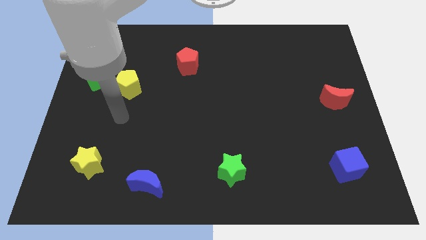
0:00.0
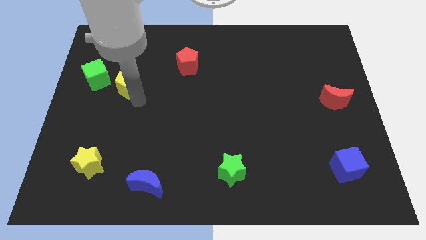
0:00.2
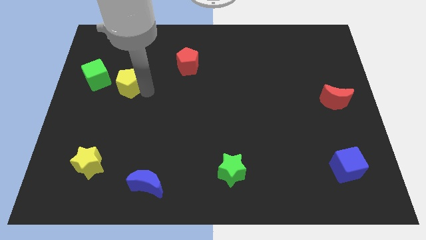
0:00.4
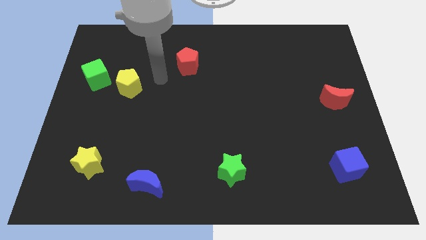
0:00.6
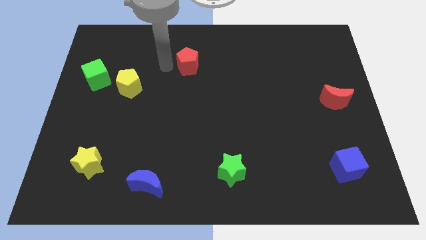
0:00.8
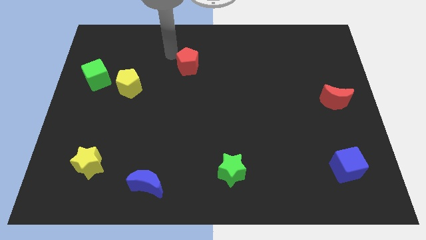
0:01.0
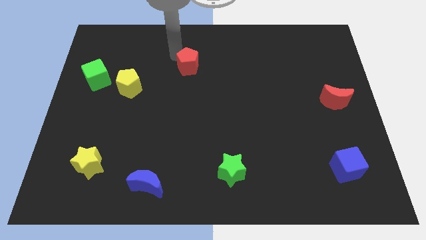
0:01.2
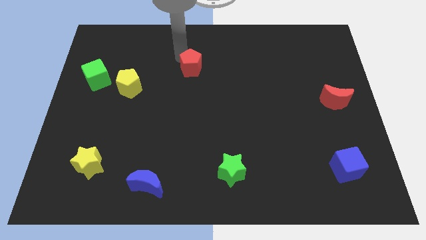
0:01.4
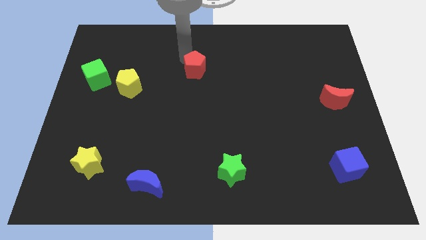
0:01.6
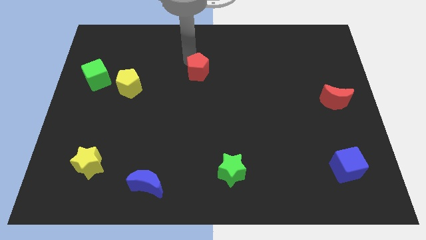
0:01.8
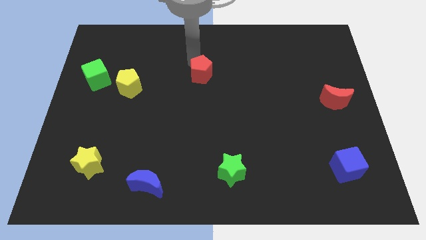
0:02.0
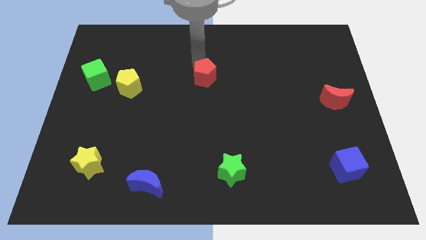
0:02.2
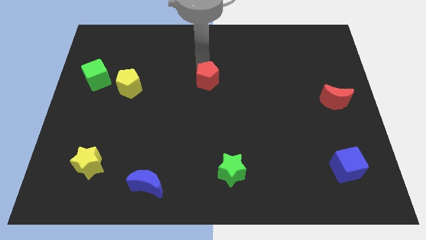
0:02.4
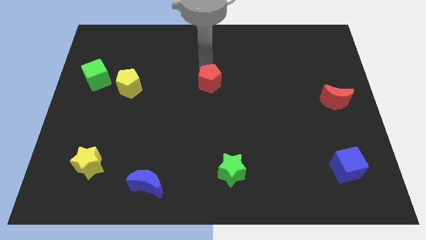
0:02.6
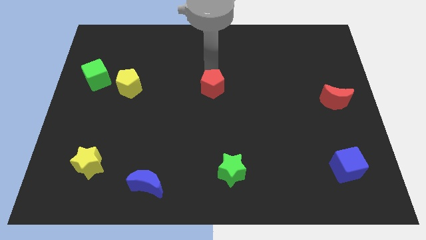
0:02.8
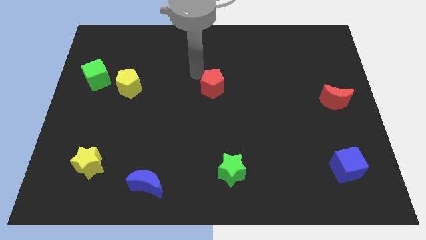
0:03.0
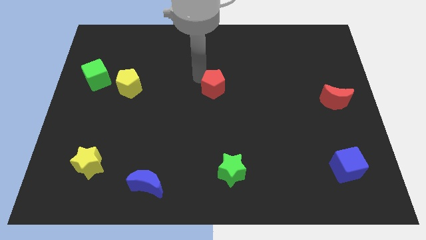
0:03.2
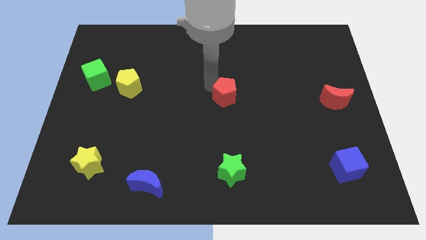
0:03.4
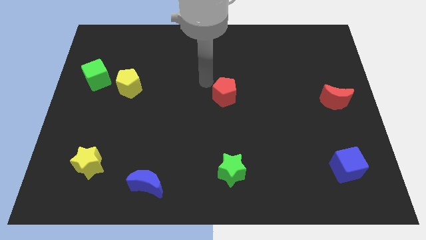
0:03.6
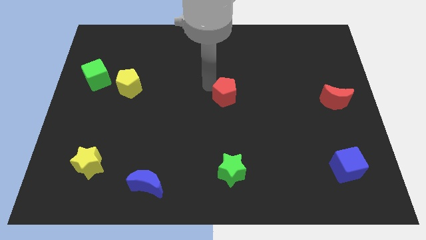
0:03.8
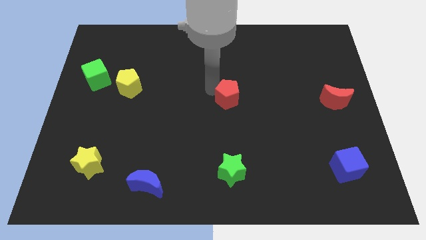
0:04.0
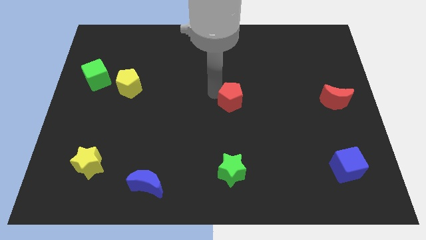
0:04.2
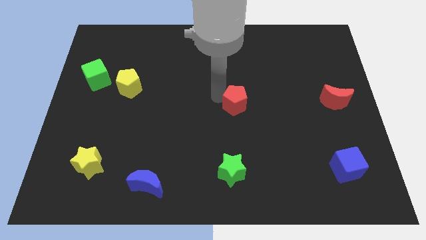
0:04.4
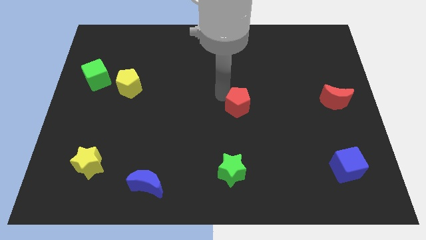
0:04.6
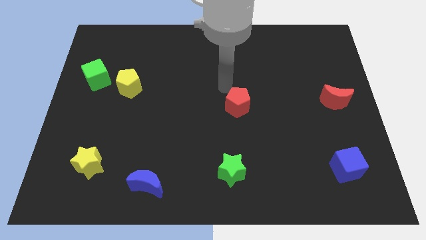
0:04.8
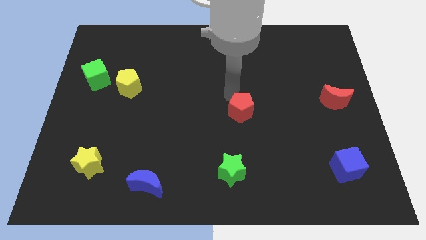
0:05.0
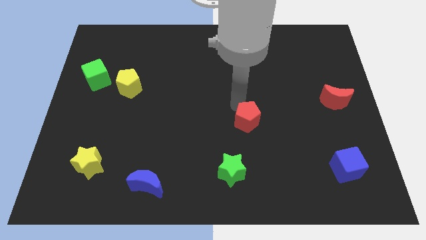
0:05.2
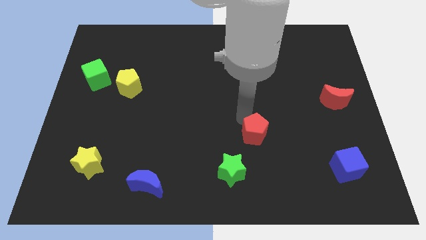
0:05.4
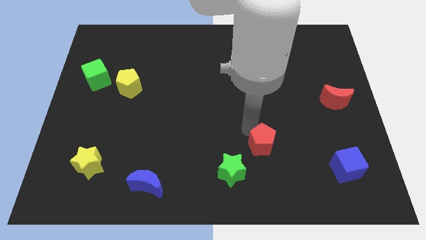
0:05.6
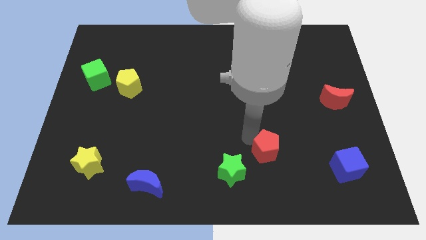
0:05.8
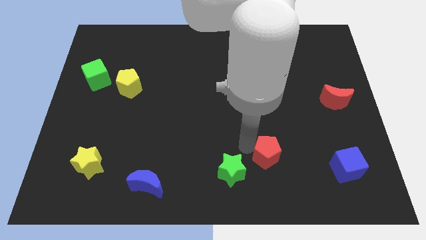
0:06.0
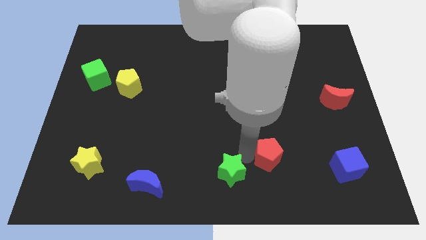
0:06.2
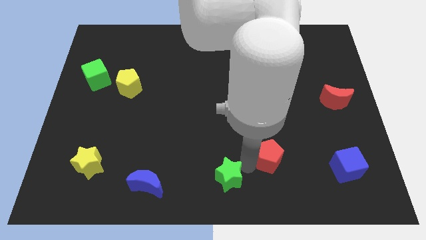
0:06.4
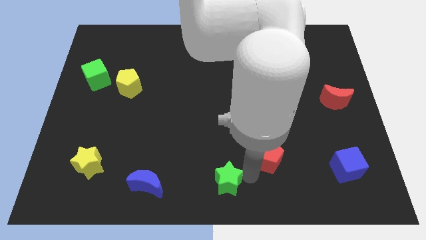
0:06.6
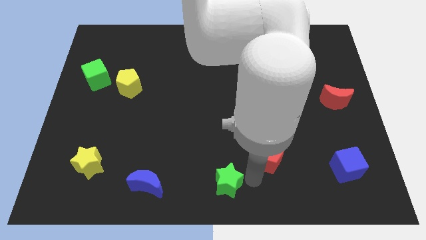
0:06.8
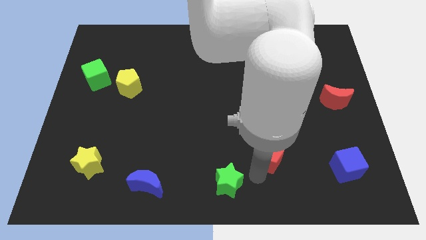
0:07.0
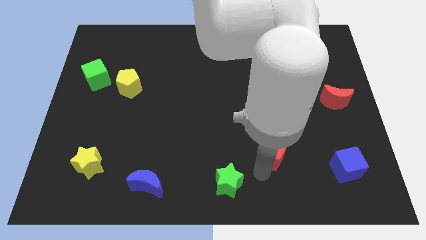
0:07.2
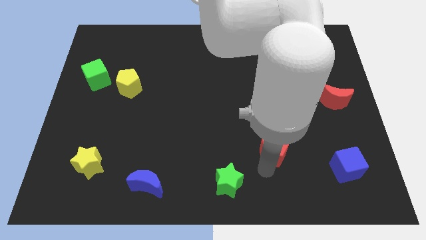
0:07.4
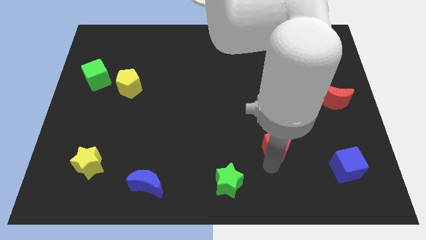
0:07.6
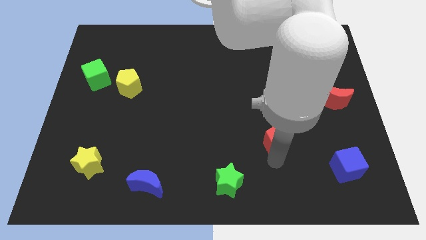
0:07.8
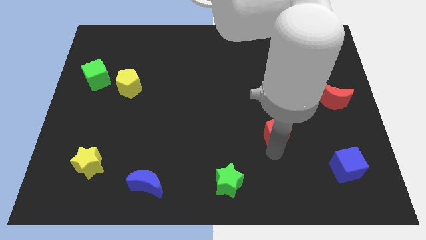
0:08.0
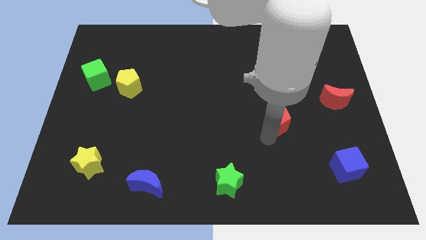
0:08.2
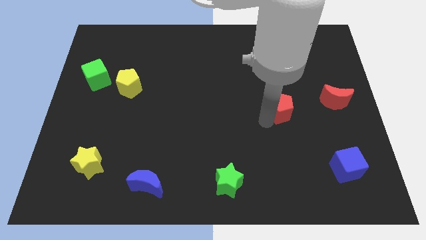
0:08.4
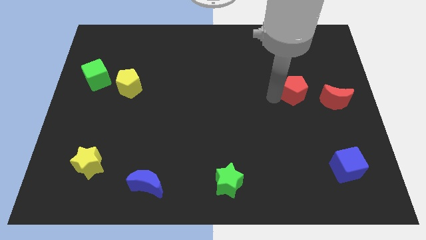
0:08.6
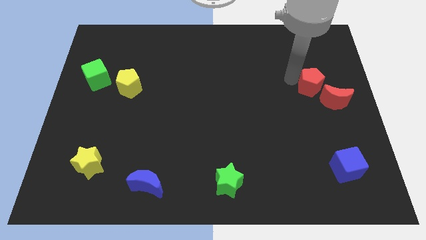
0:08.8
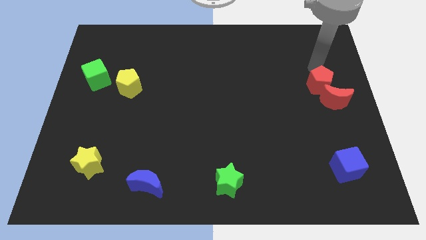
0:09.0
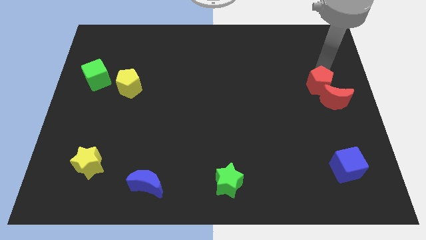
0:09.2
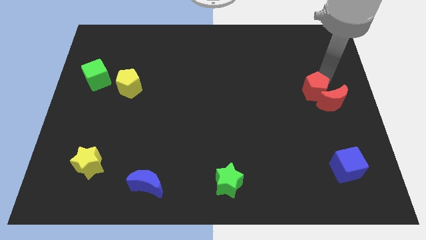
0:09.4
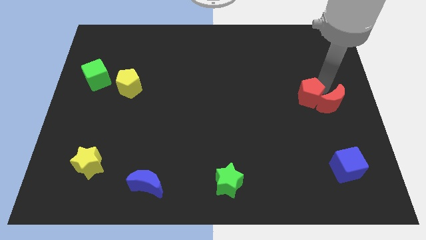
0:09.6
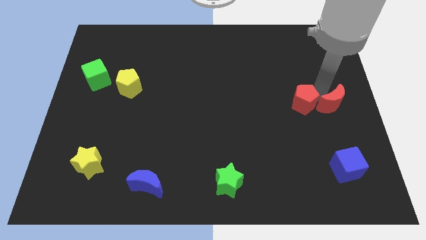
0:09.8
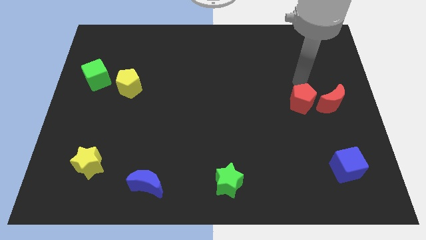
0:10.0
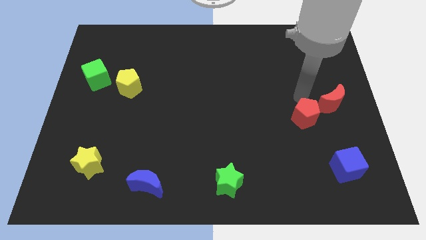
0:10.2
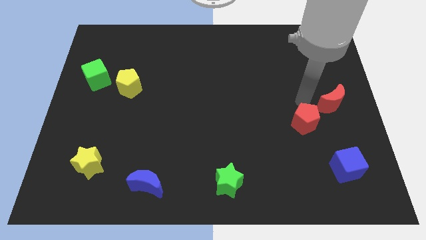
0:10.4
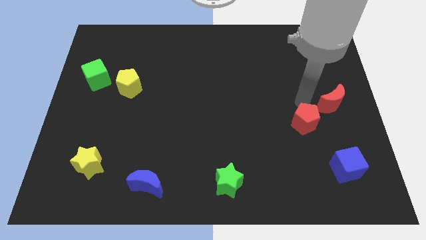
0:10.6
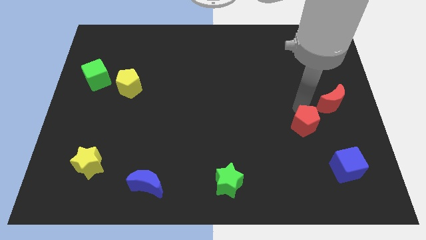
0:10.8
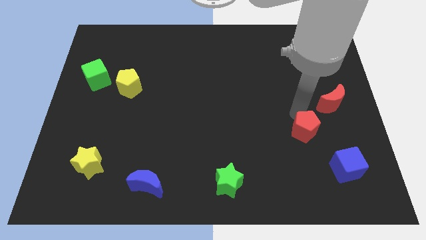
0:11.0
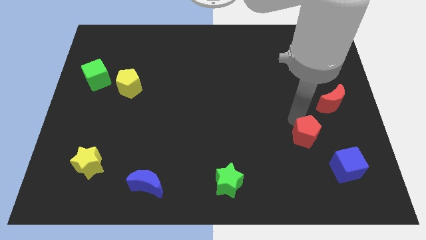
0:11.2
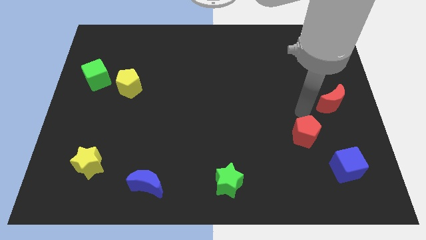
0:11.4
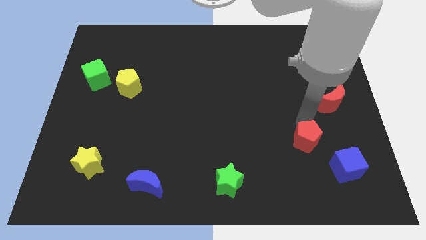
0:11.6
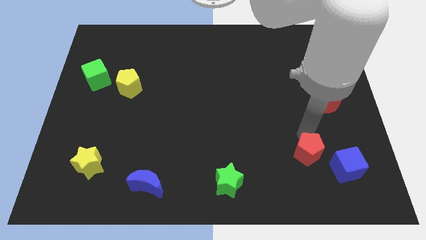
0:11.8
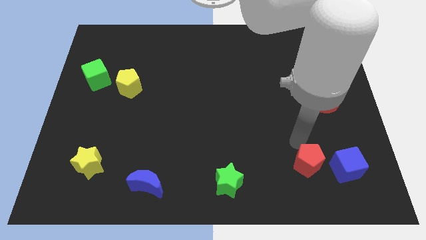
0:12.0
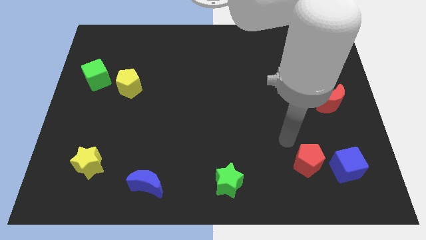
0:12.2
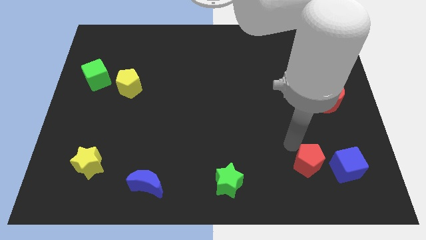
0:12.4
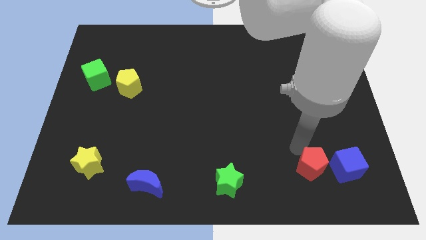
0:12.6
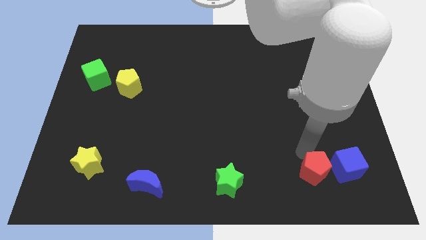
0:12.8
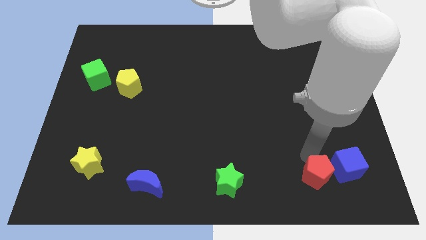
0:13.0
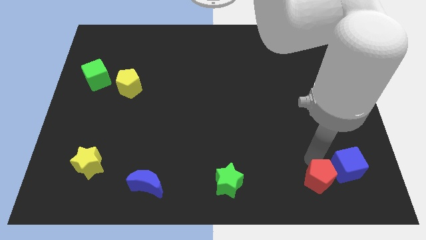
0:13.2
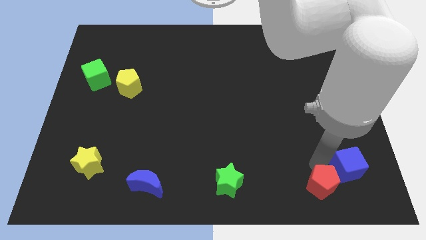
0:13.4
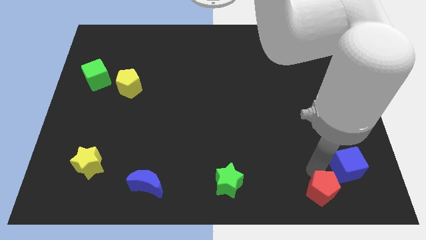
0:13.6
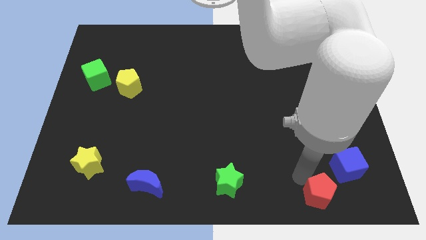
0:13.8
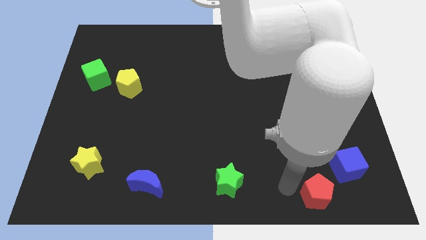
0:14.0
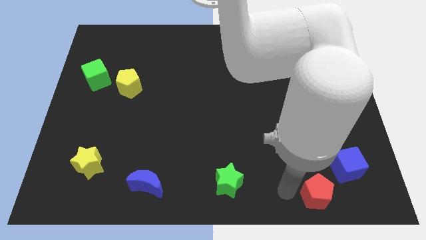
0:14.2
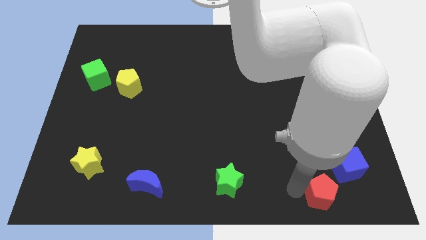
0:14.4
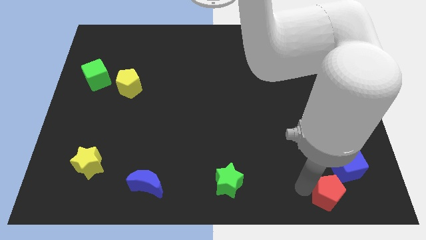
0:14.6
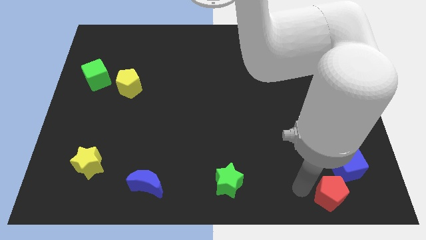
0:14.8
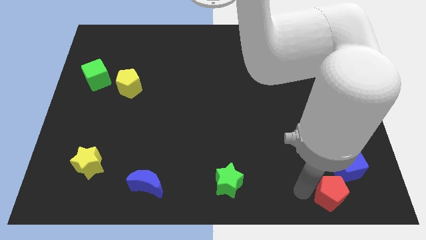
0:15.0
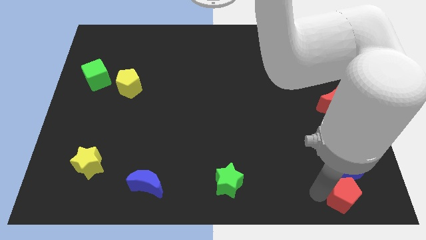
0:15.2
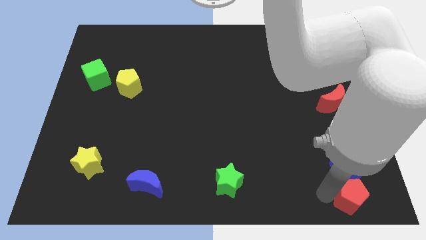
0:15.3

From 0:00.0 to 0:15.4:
put the red pentagon to the bottom right
